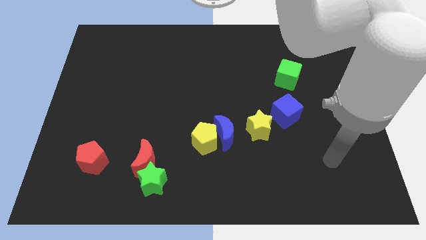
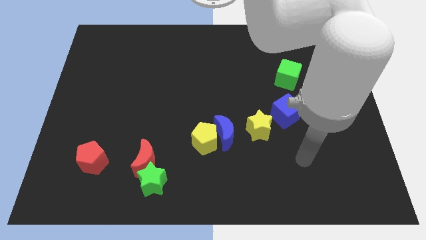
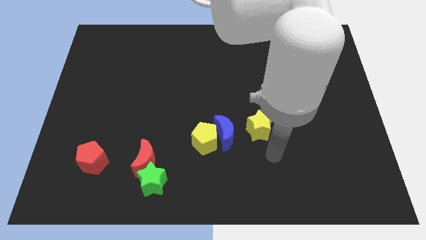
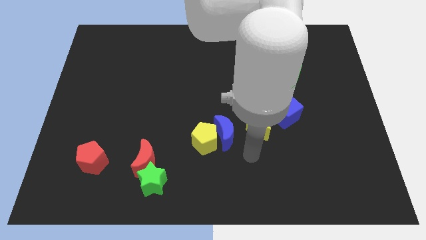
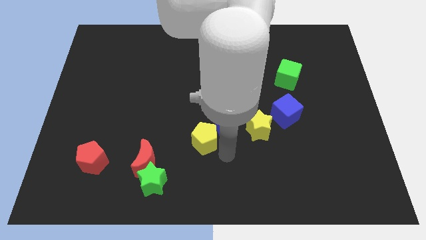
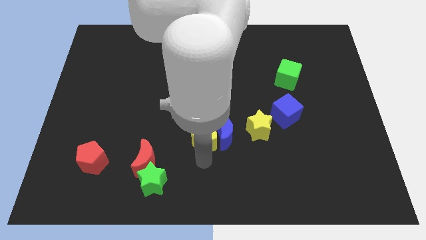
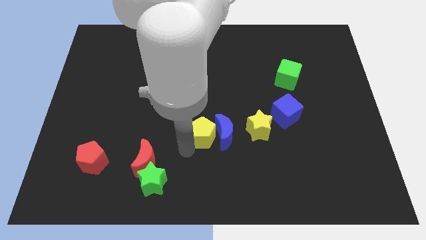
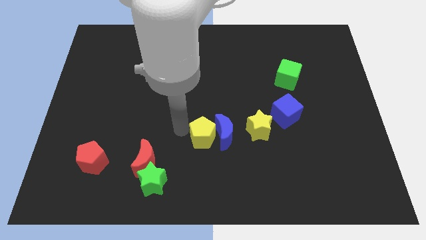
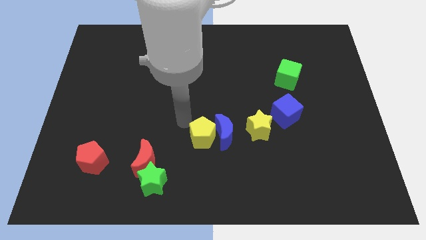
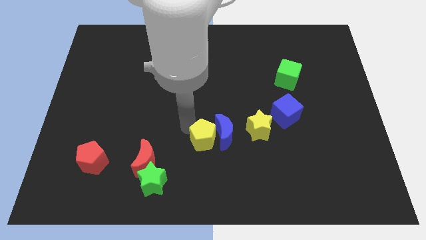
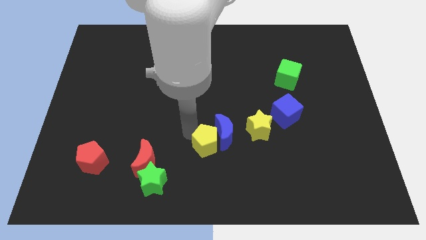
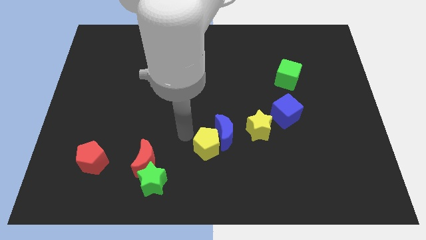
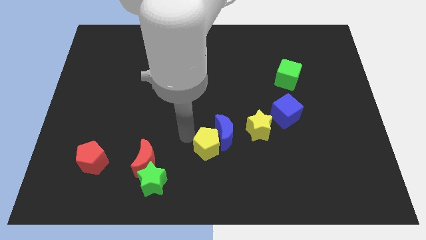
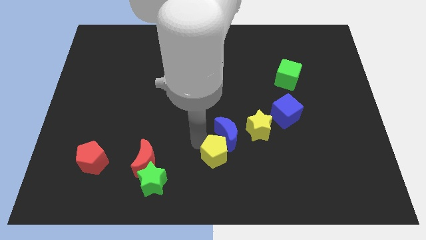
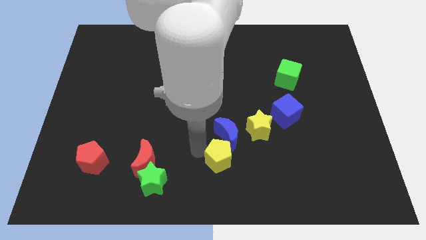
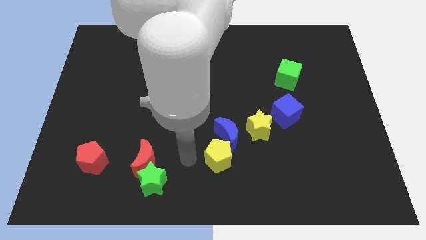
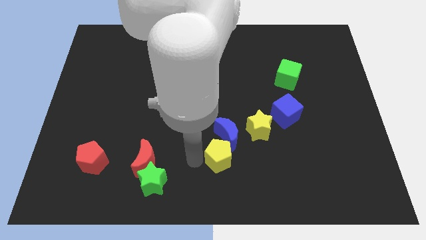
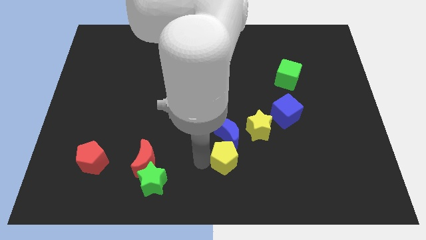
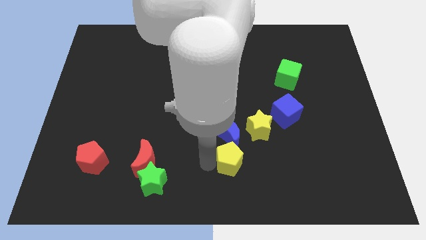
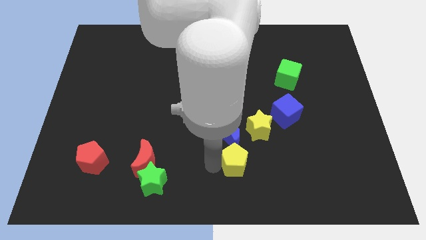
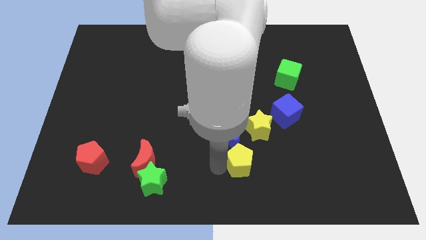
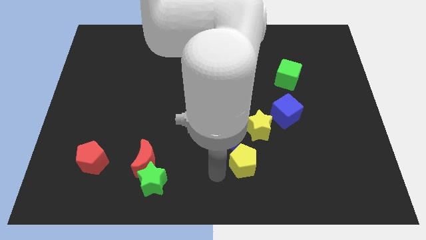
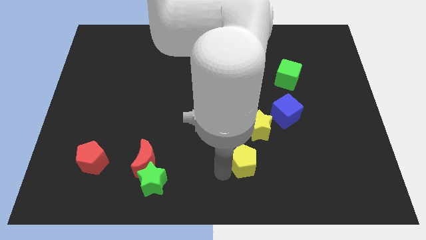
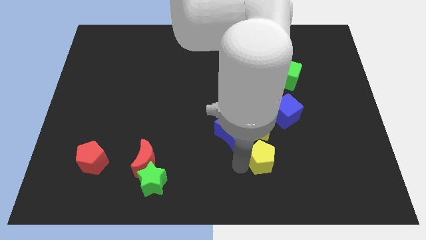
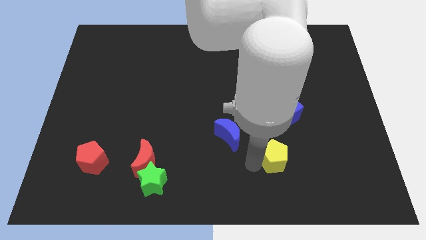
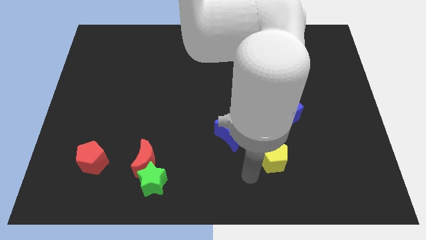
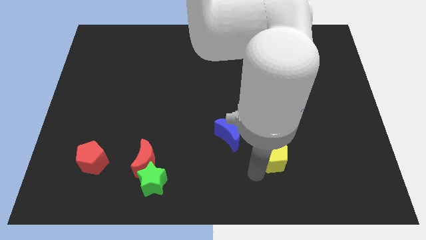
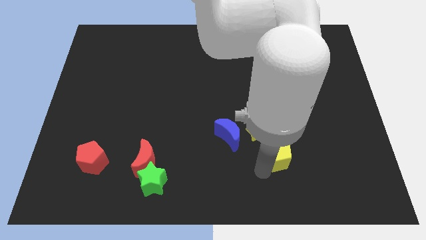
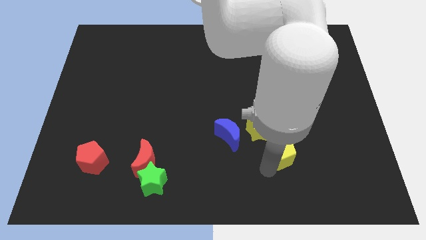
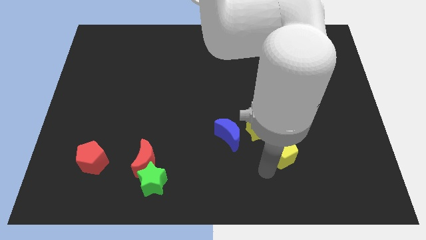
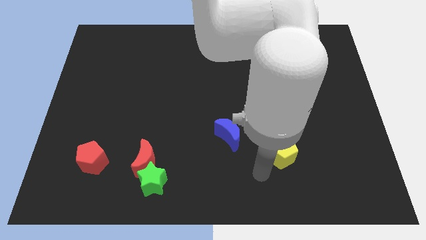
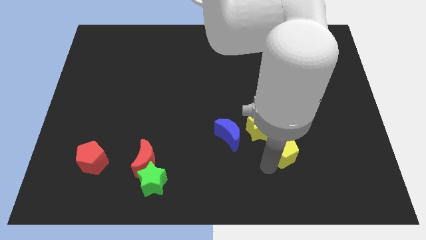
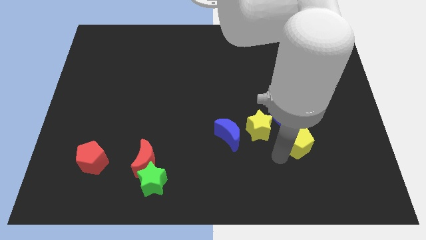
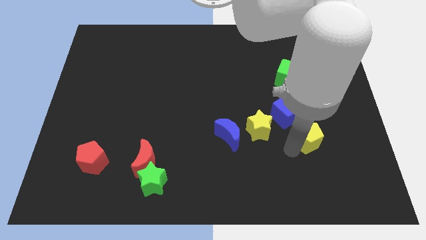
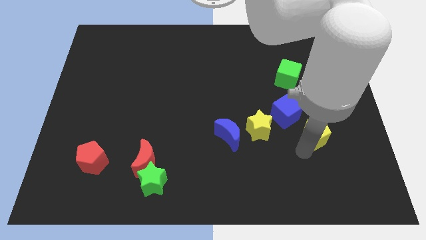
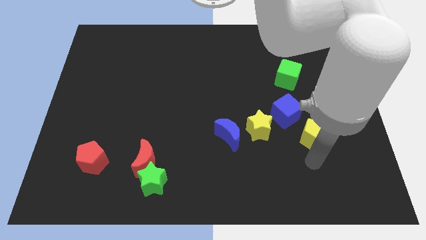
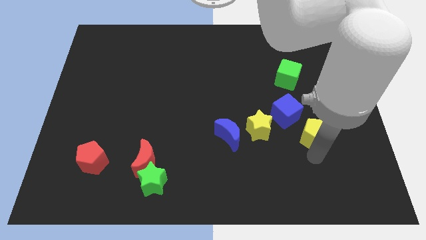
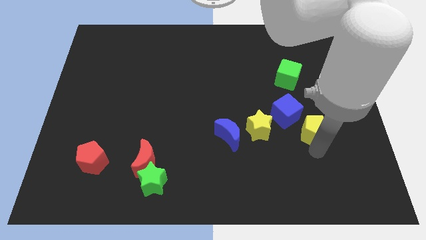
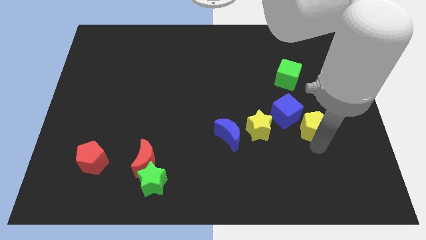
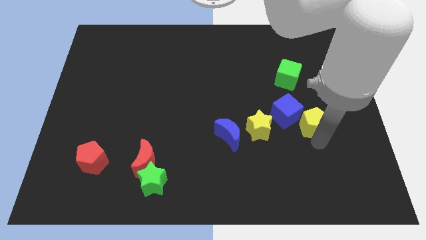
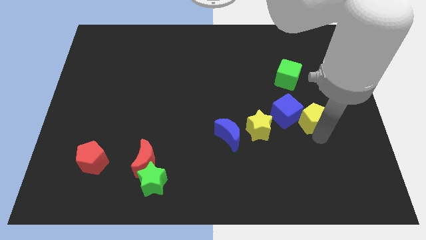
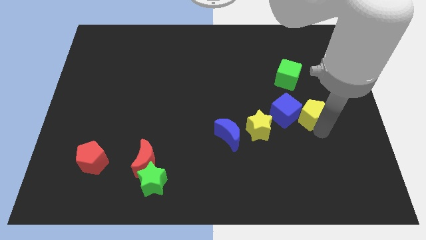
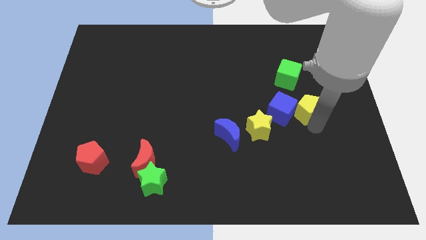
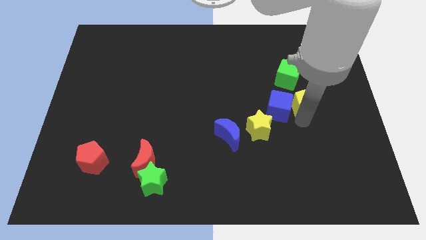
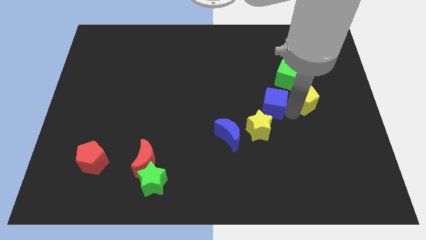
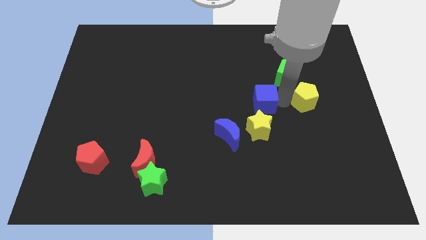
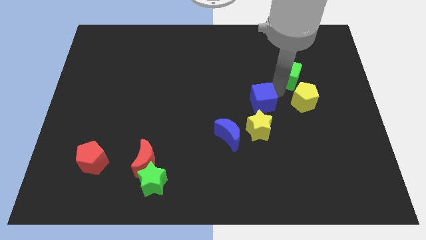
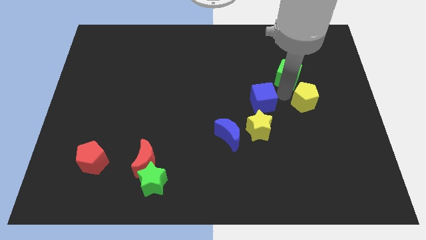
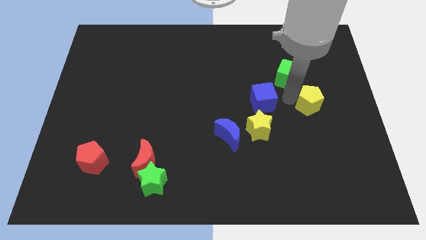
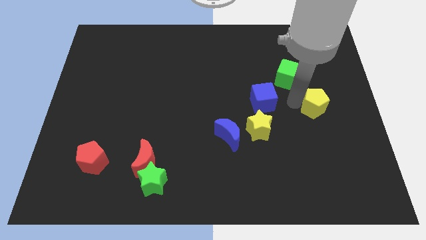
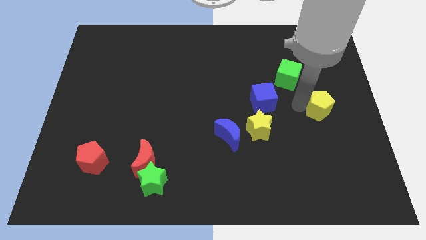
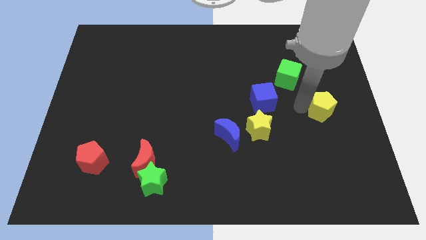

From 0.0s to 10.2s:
push the yellow pentagon to the right side

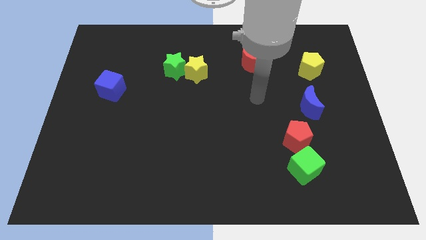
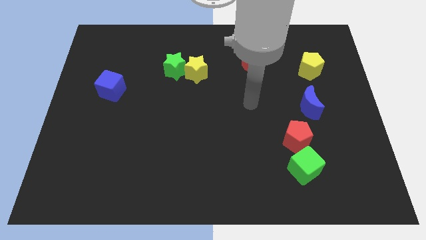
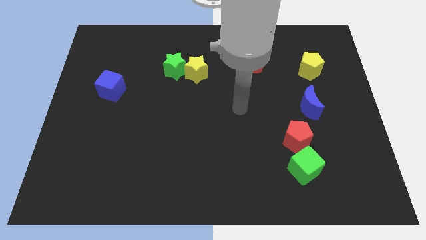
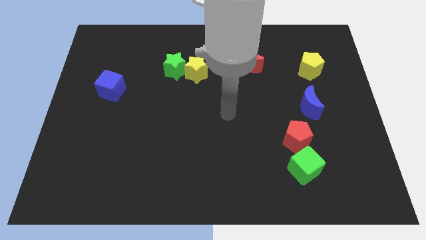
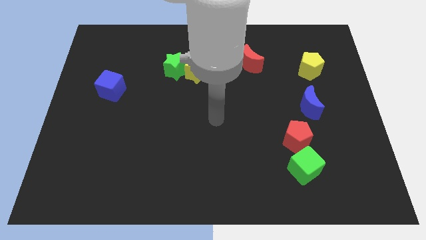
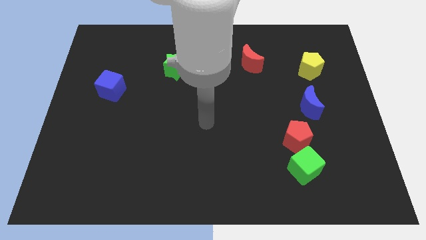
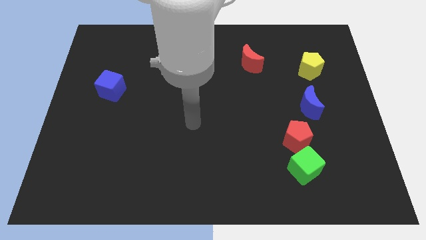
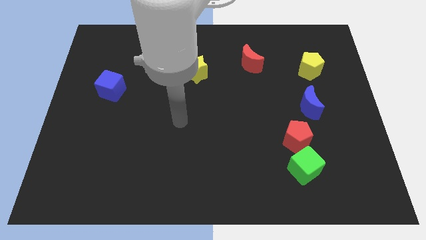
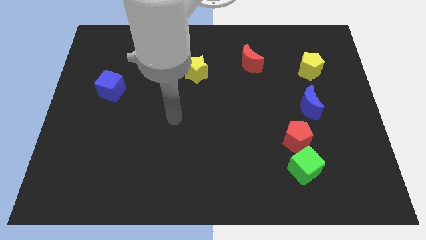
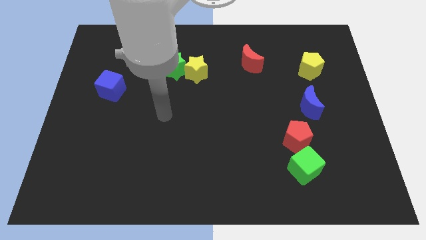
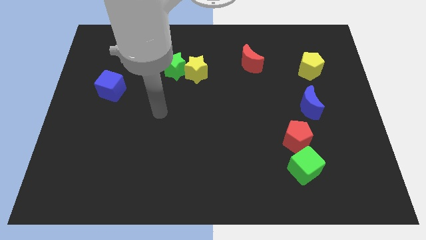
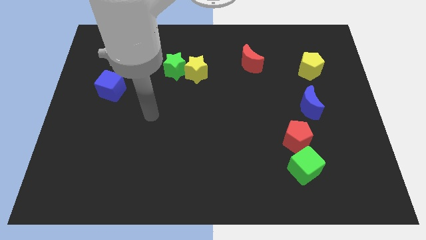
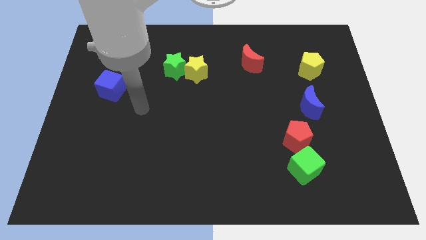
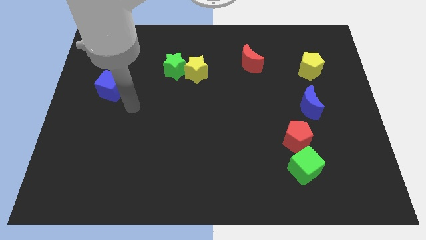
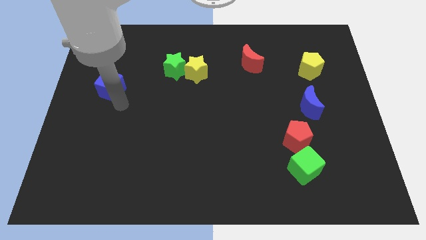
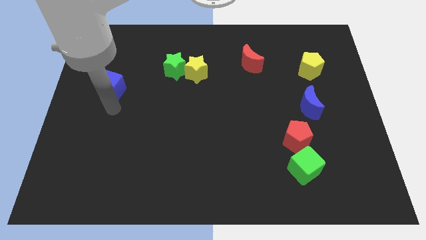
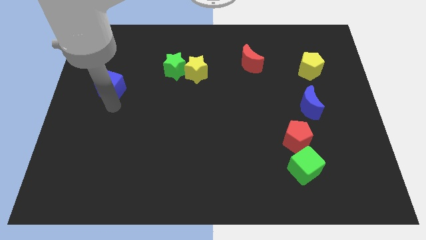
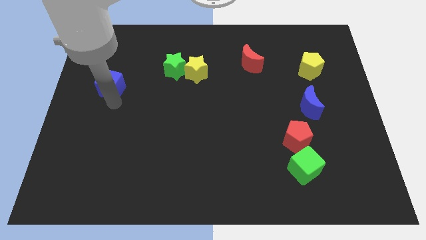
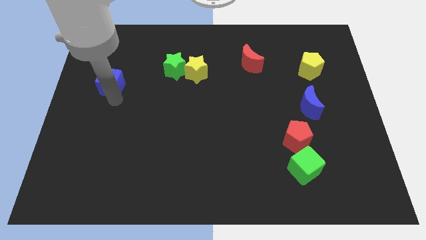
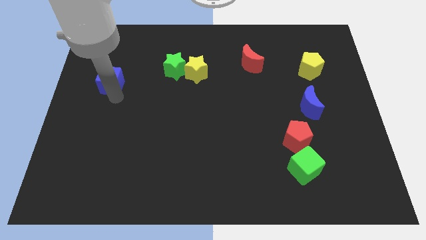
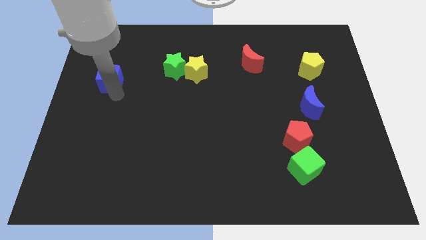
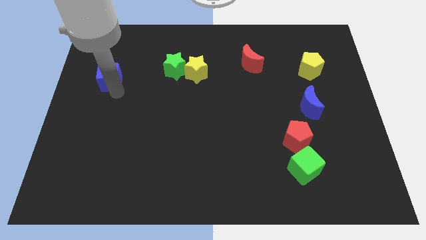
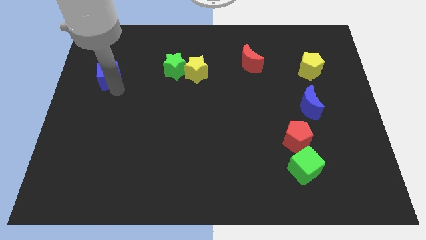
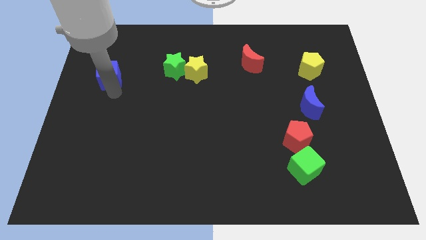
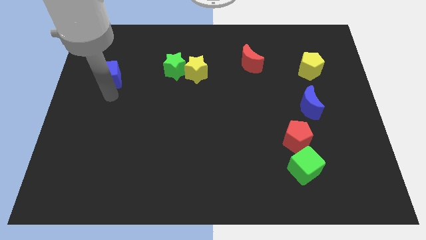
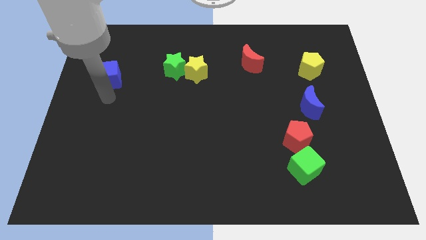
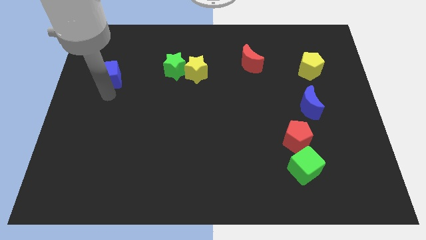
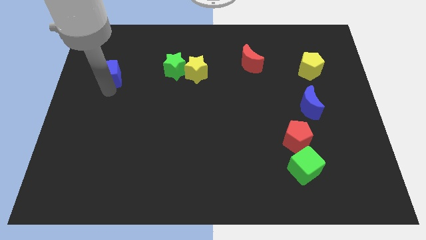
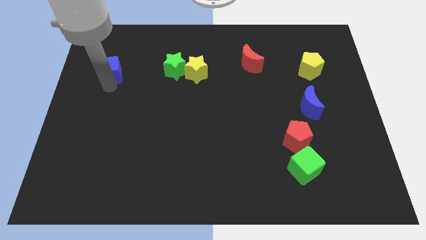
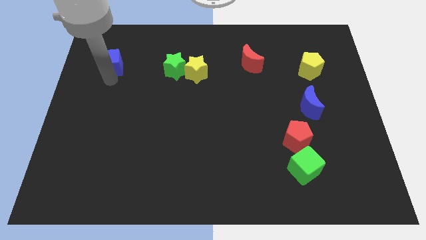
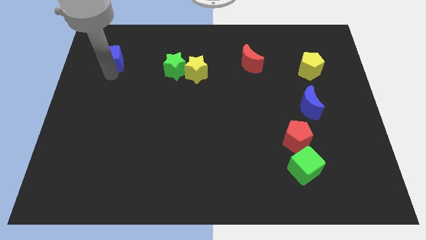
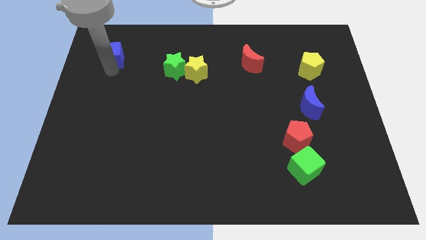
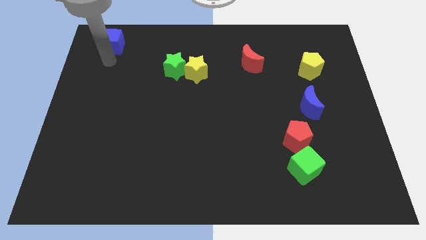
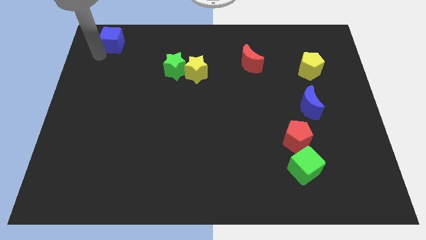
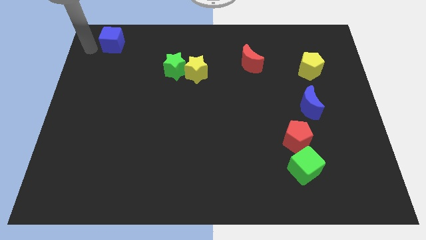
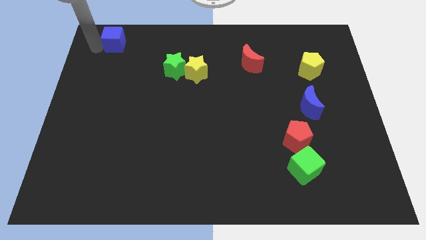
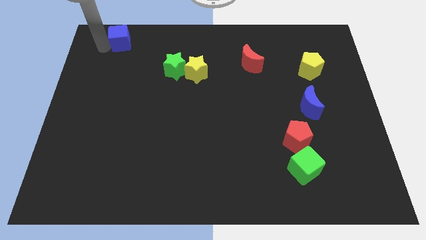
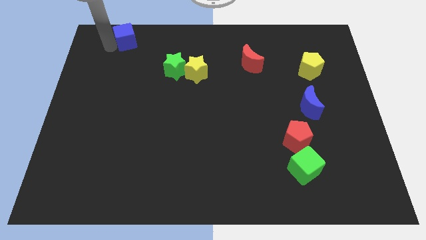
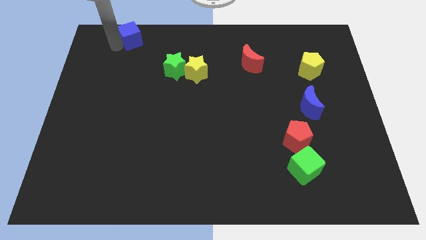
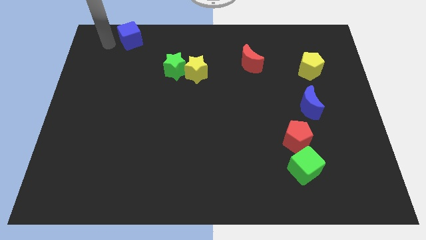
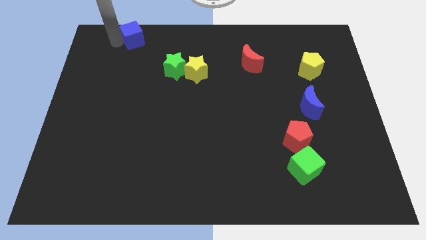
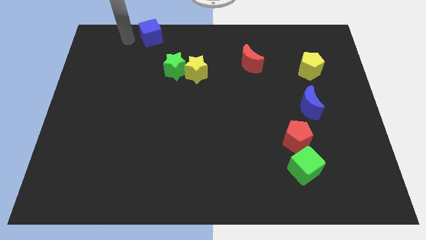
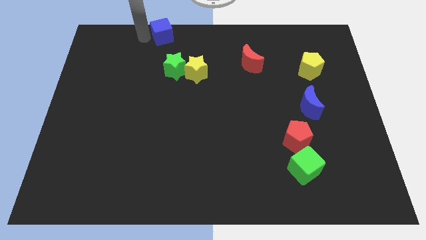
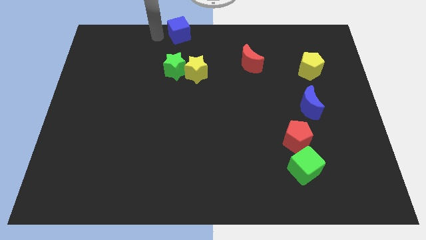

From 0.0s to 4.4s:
push the blue cube to the towards your base
